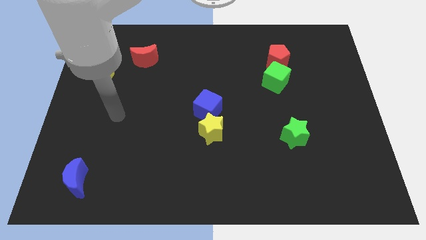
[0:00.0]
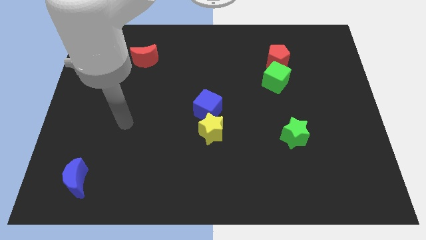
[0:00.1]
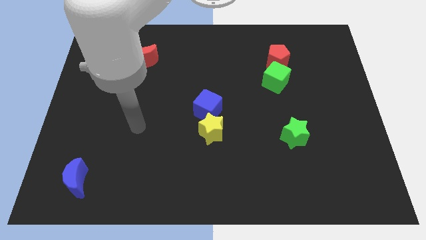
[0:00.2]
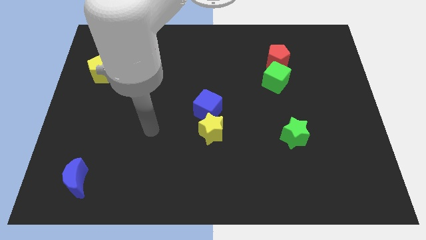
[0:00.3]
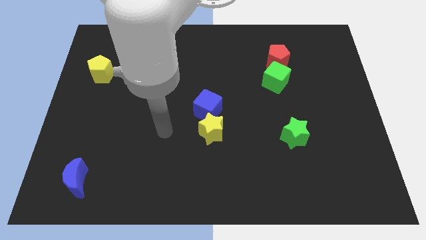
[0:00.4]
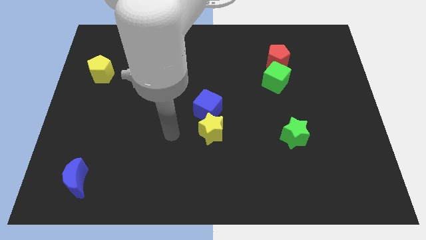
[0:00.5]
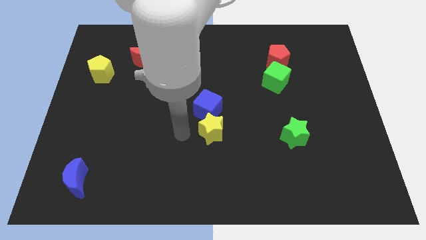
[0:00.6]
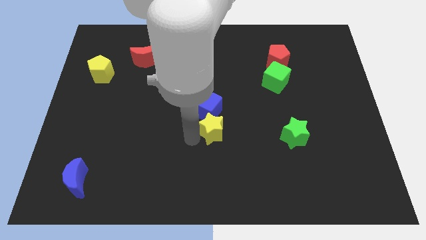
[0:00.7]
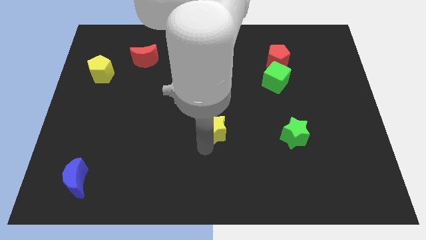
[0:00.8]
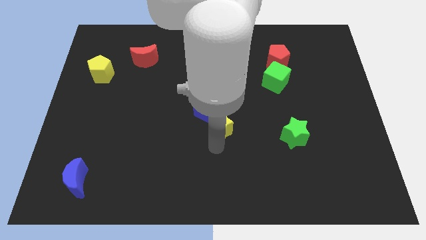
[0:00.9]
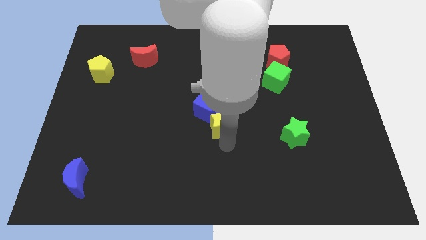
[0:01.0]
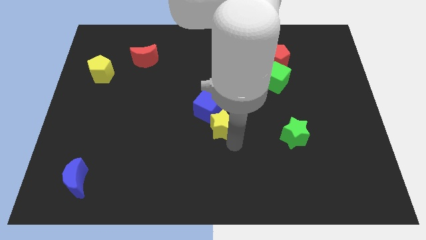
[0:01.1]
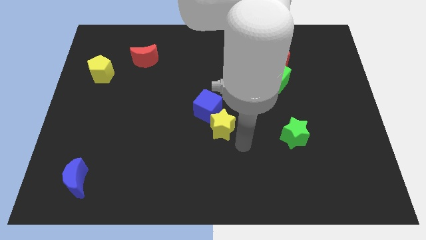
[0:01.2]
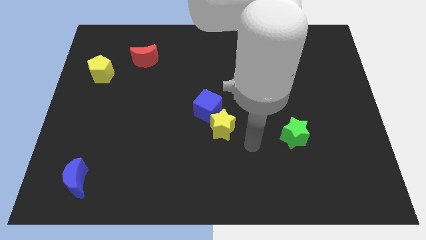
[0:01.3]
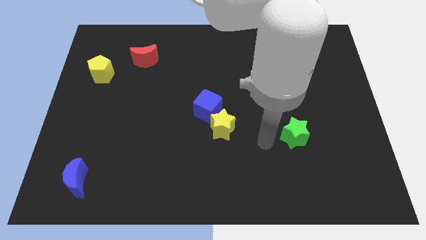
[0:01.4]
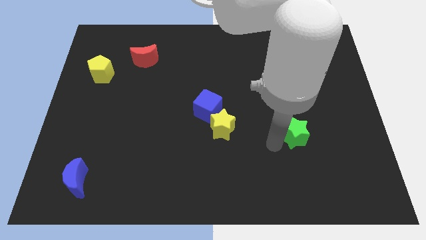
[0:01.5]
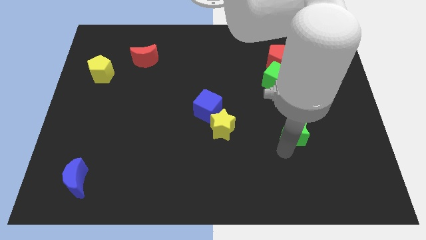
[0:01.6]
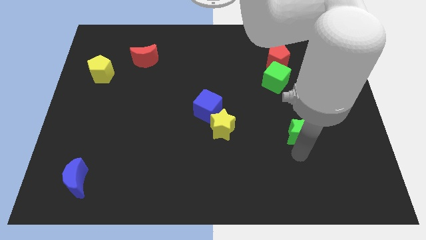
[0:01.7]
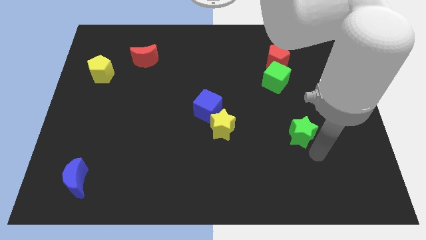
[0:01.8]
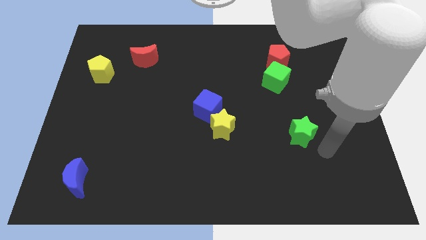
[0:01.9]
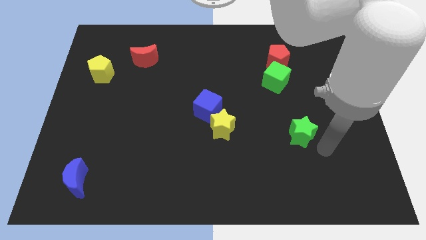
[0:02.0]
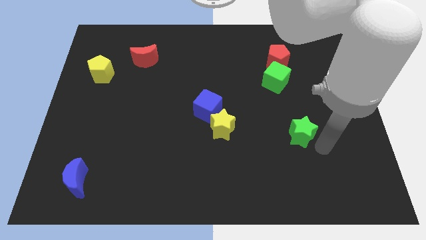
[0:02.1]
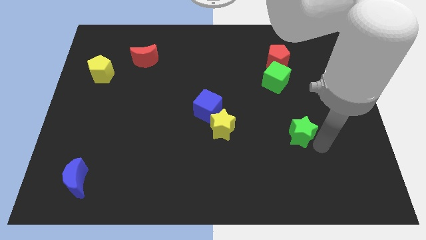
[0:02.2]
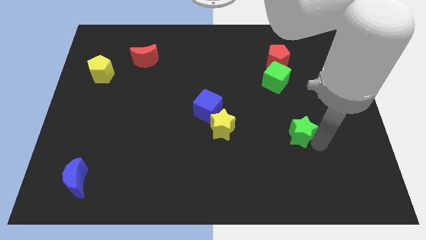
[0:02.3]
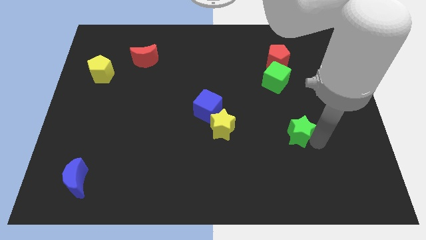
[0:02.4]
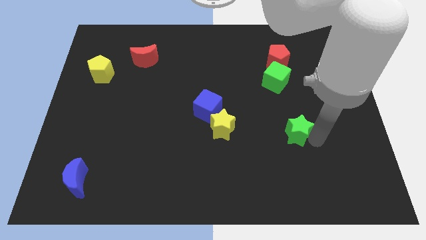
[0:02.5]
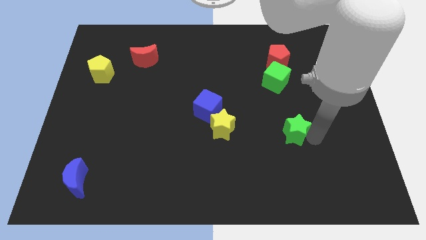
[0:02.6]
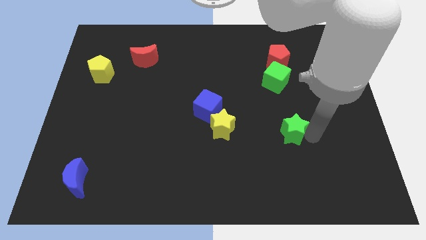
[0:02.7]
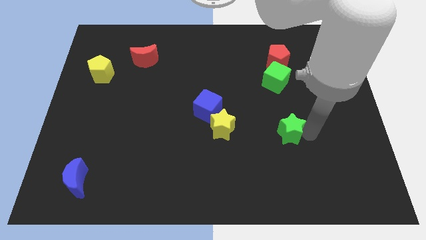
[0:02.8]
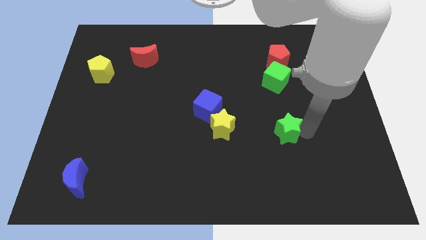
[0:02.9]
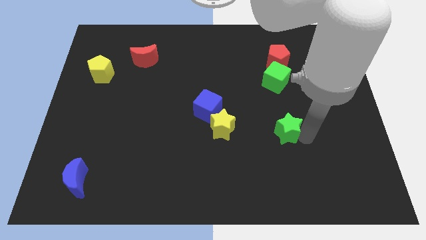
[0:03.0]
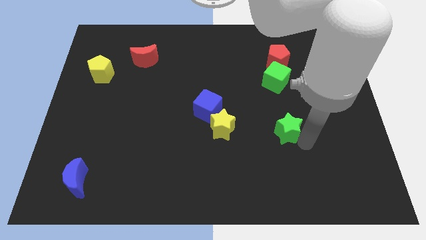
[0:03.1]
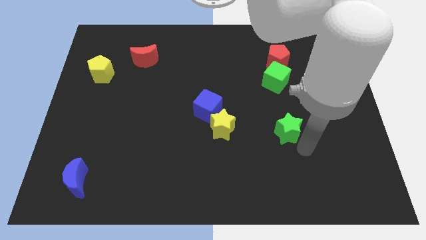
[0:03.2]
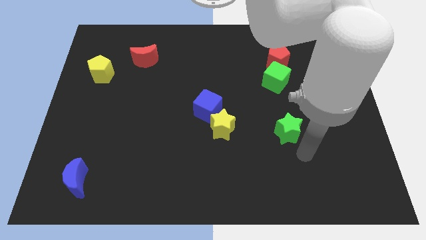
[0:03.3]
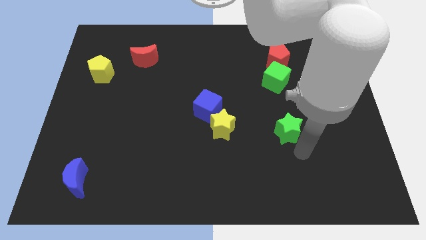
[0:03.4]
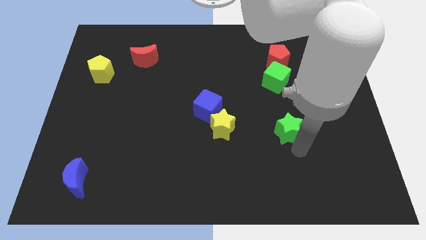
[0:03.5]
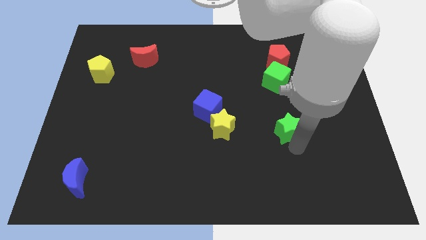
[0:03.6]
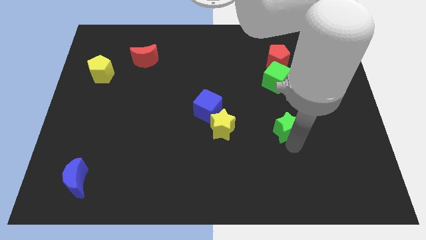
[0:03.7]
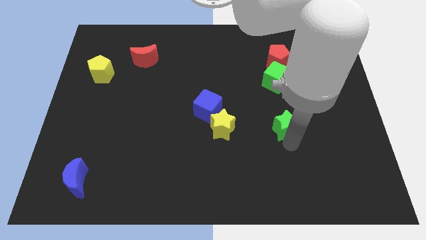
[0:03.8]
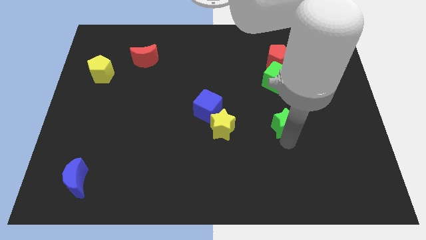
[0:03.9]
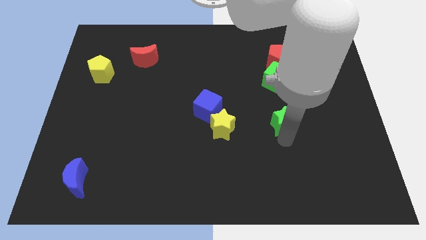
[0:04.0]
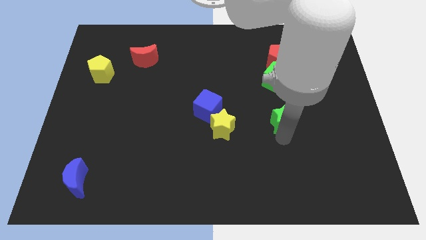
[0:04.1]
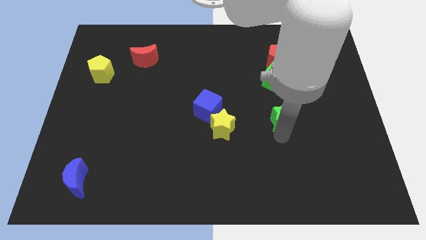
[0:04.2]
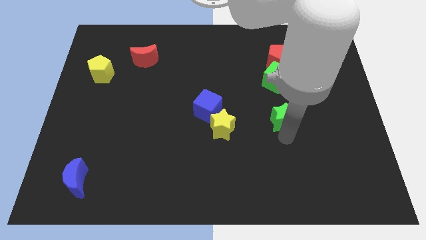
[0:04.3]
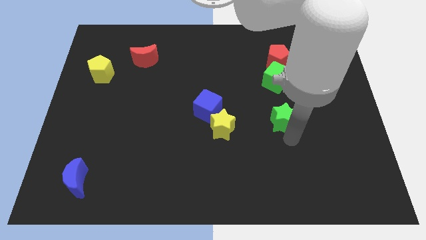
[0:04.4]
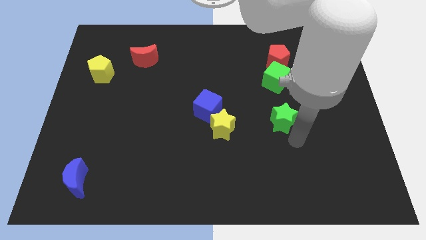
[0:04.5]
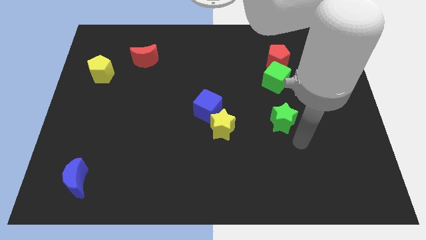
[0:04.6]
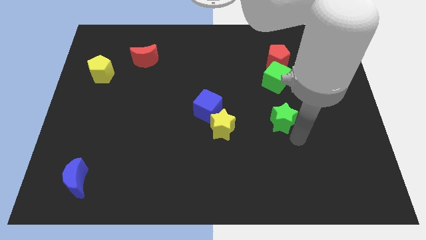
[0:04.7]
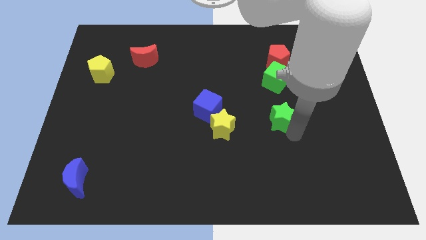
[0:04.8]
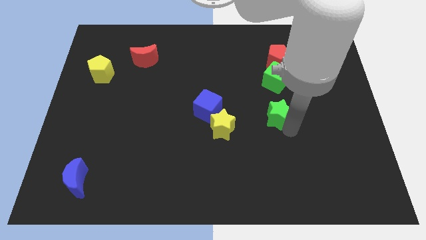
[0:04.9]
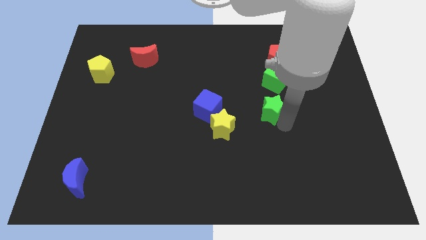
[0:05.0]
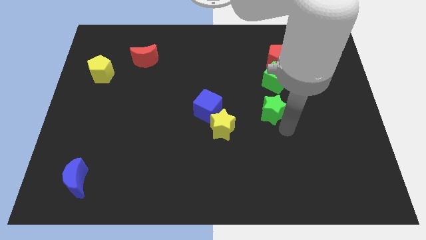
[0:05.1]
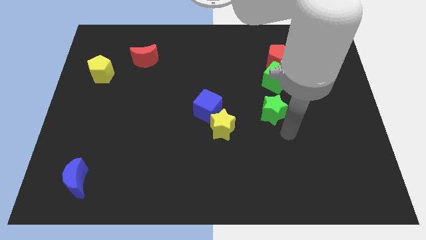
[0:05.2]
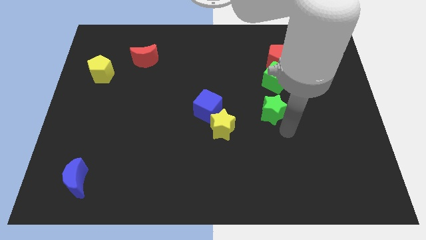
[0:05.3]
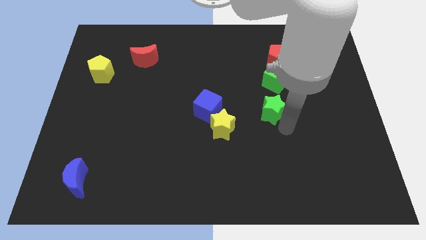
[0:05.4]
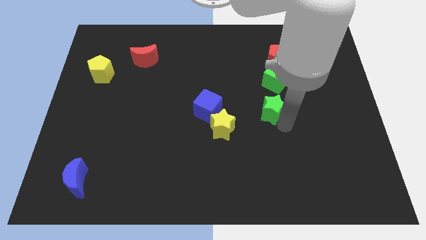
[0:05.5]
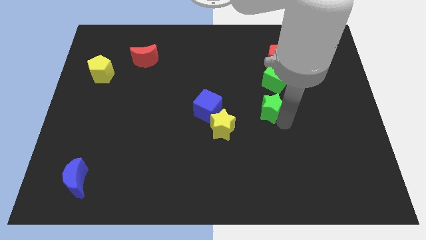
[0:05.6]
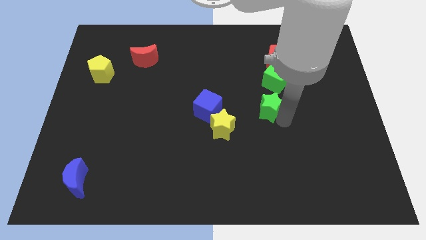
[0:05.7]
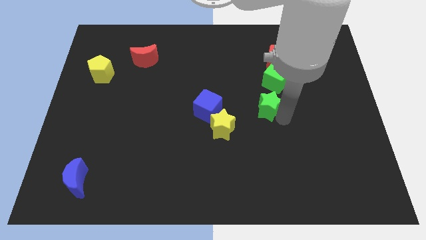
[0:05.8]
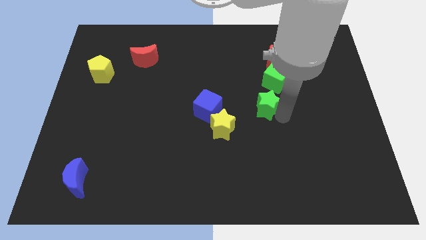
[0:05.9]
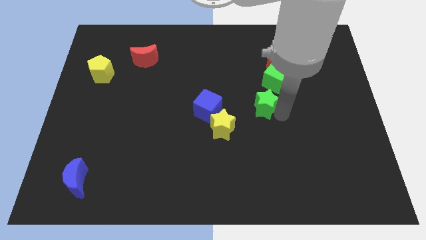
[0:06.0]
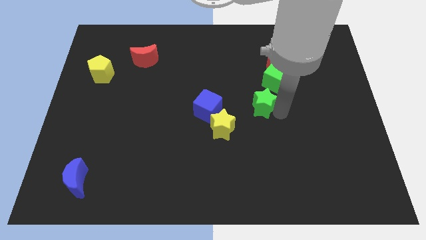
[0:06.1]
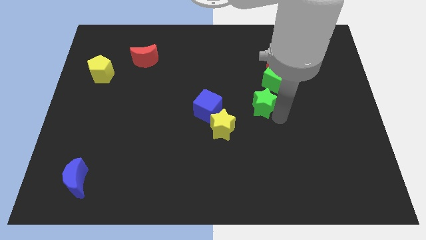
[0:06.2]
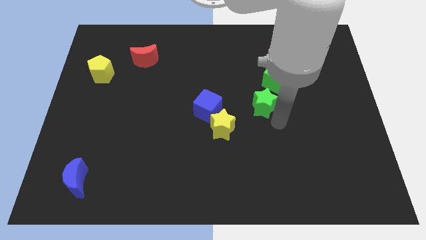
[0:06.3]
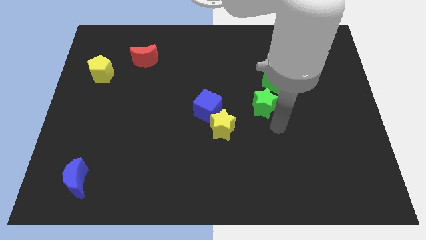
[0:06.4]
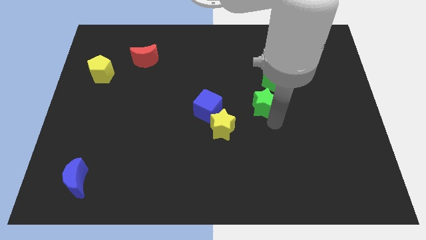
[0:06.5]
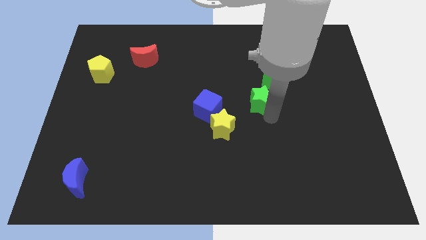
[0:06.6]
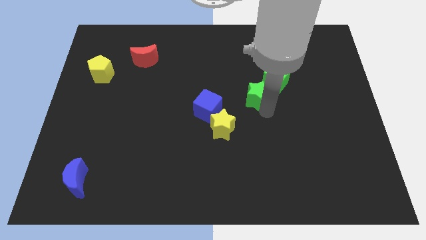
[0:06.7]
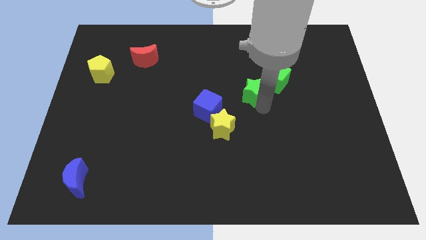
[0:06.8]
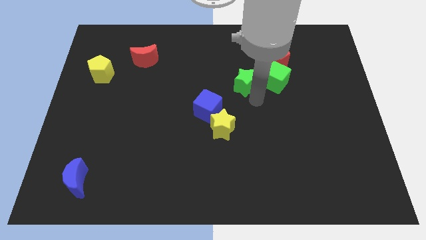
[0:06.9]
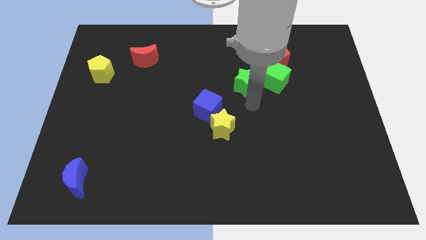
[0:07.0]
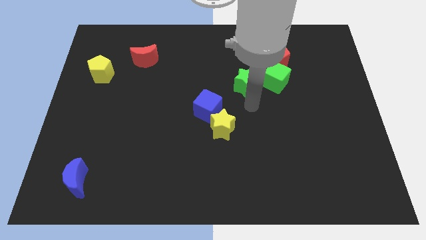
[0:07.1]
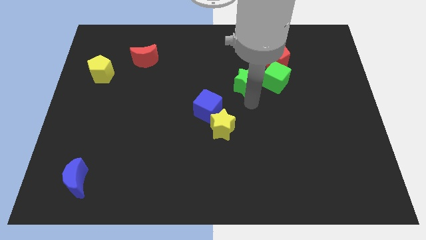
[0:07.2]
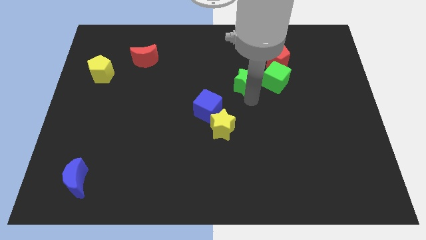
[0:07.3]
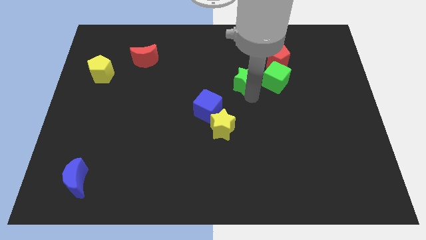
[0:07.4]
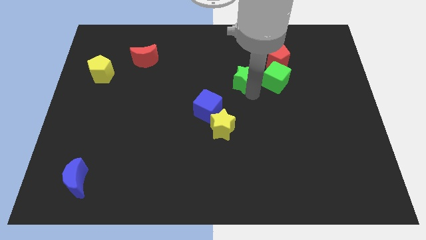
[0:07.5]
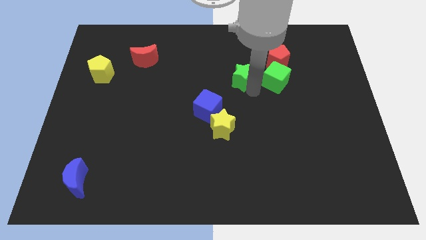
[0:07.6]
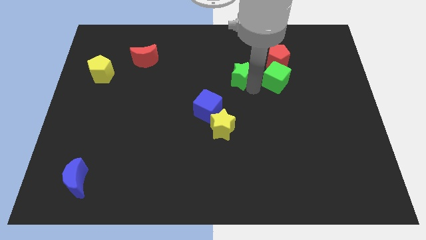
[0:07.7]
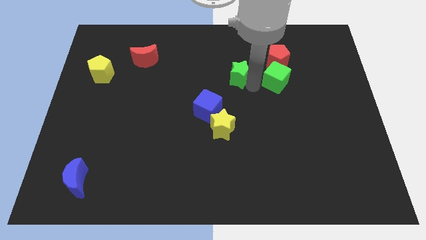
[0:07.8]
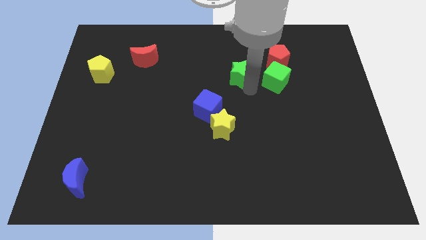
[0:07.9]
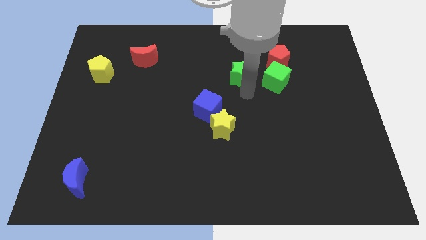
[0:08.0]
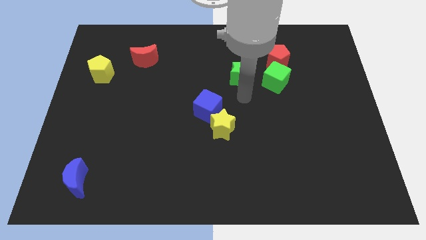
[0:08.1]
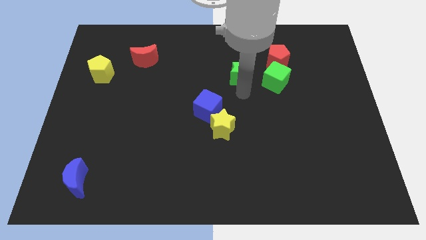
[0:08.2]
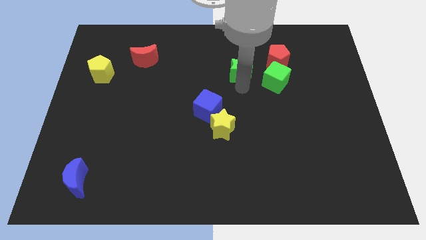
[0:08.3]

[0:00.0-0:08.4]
push the green star left of the red pentagon
